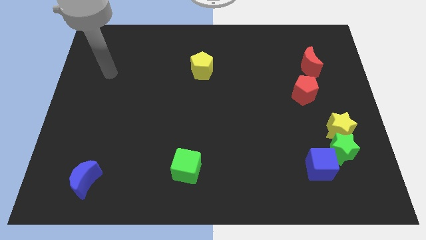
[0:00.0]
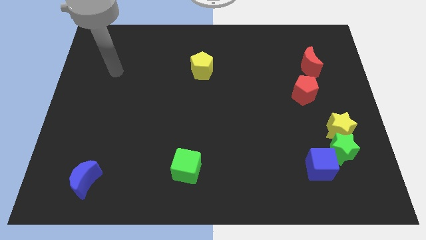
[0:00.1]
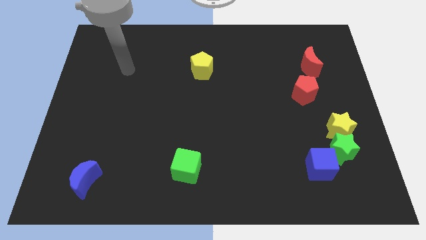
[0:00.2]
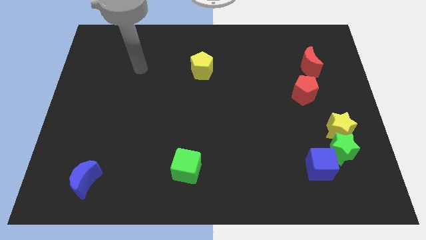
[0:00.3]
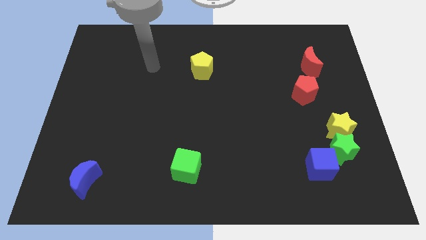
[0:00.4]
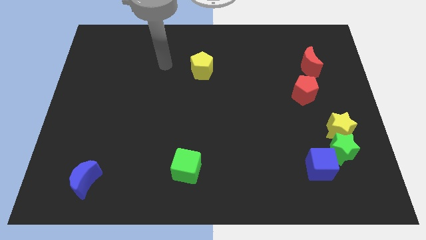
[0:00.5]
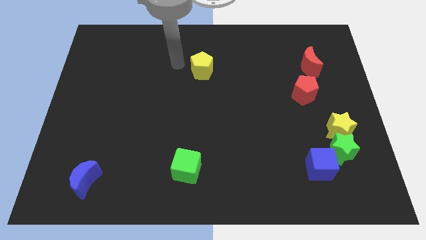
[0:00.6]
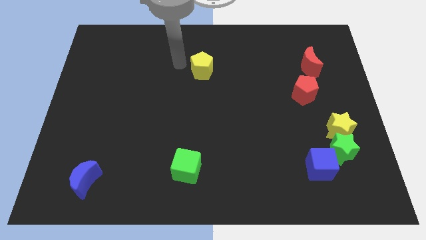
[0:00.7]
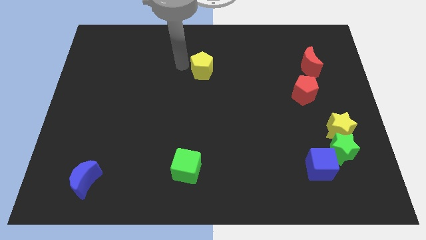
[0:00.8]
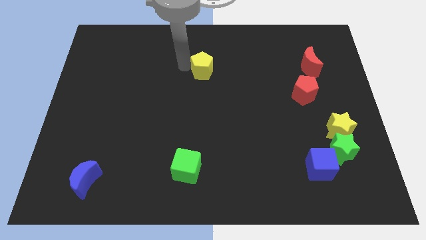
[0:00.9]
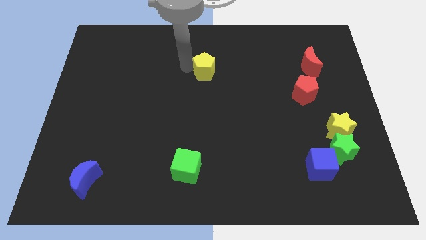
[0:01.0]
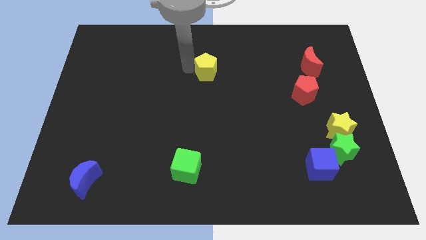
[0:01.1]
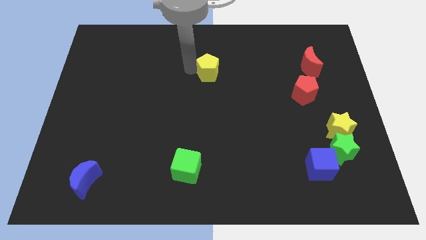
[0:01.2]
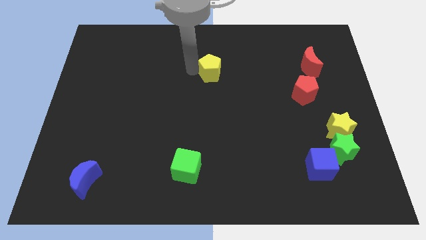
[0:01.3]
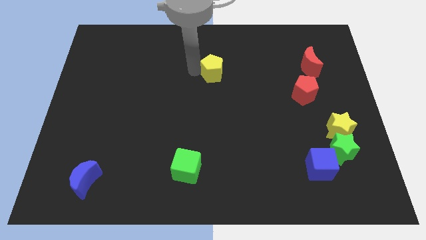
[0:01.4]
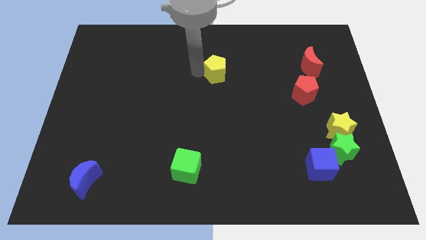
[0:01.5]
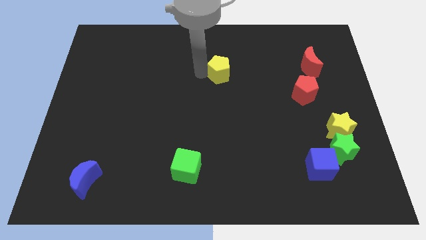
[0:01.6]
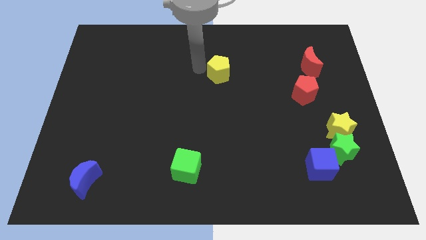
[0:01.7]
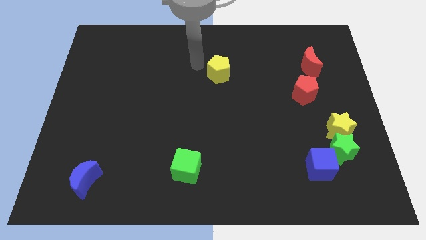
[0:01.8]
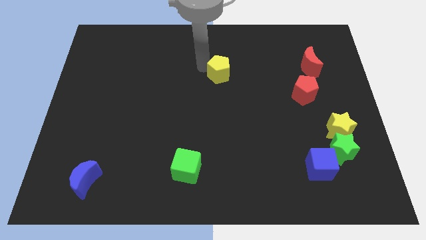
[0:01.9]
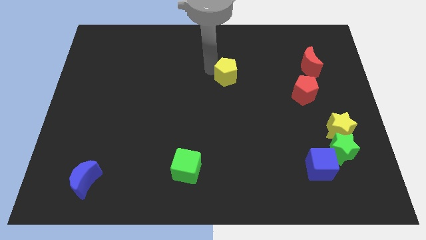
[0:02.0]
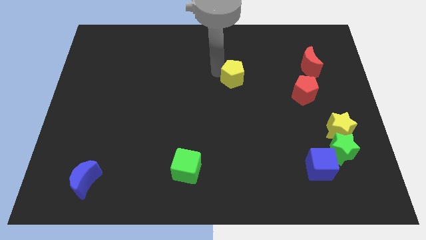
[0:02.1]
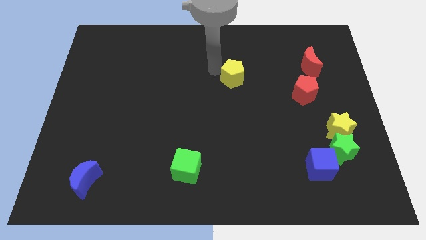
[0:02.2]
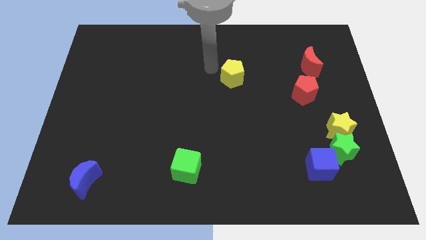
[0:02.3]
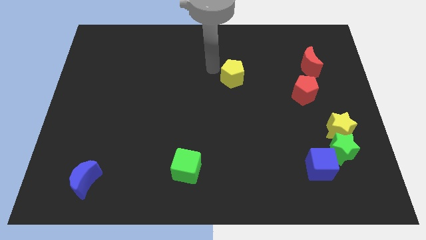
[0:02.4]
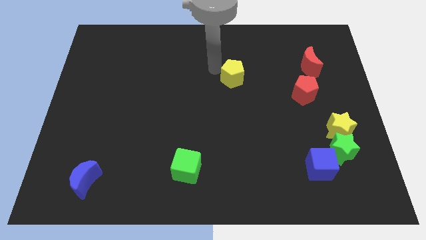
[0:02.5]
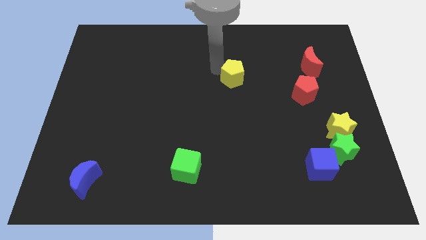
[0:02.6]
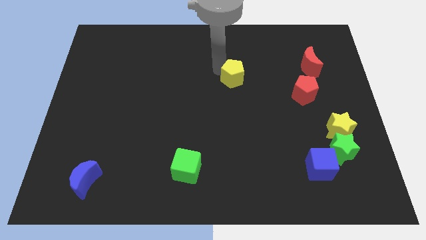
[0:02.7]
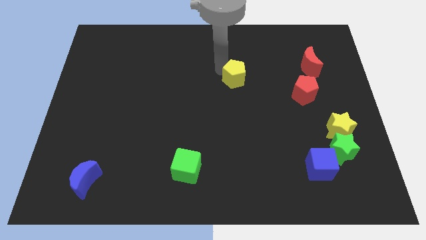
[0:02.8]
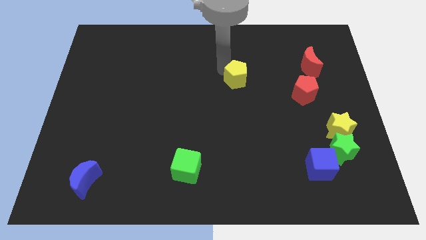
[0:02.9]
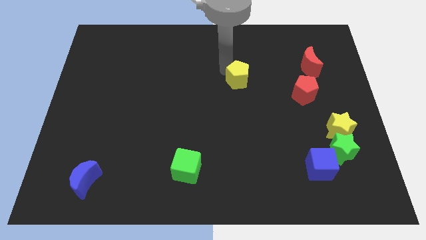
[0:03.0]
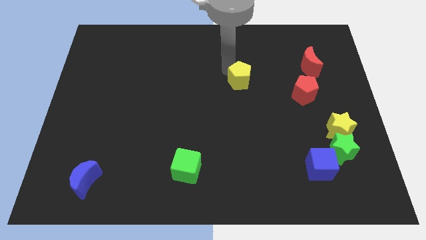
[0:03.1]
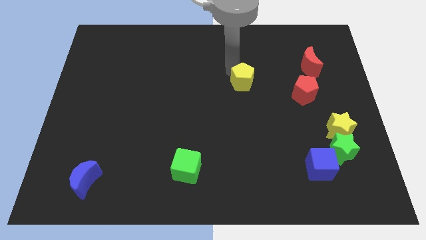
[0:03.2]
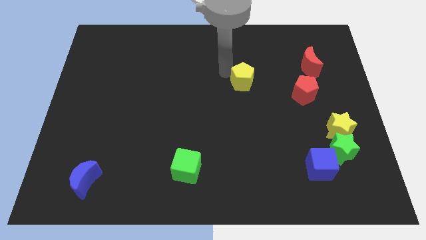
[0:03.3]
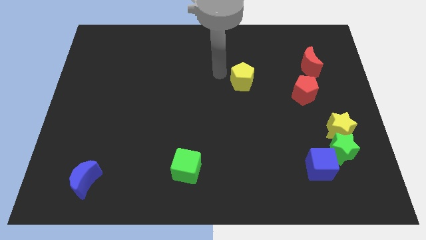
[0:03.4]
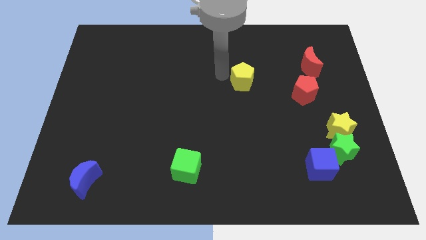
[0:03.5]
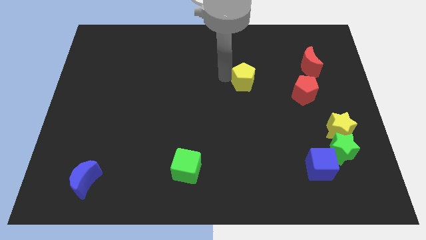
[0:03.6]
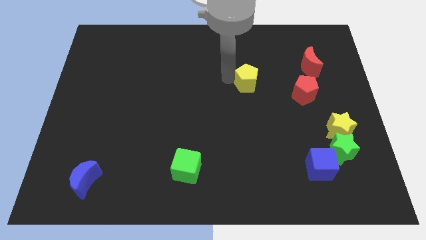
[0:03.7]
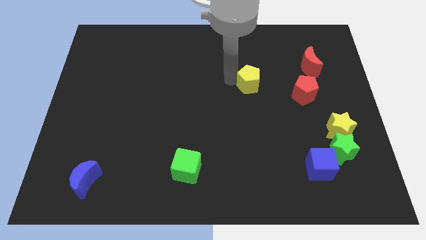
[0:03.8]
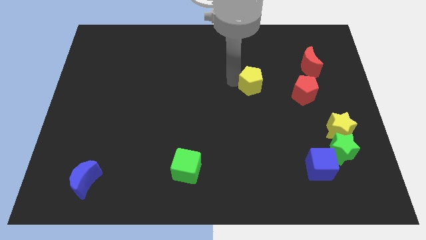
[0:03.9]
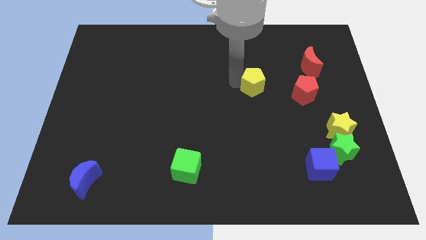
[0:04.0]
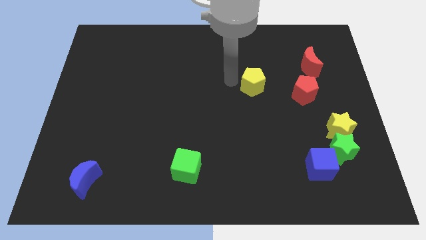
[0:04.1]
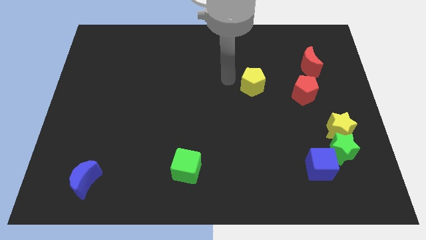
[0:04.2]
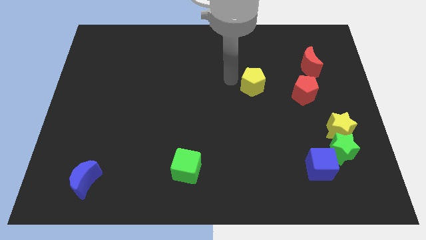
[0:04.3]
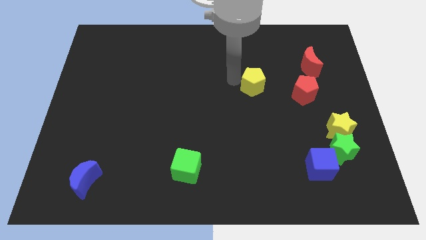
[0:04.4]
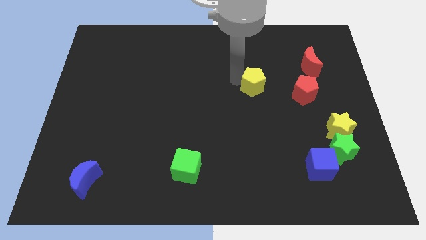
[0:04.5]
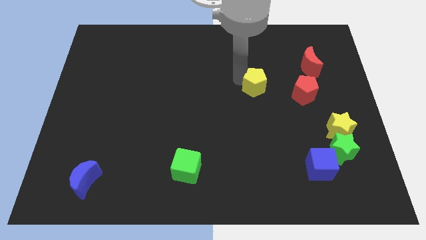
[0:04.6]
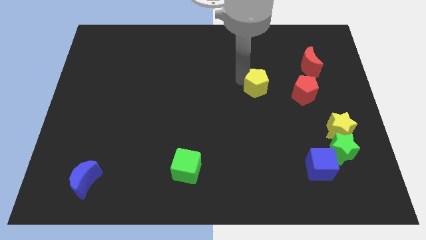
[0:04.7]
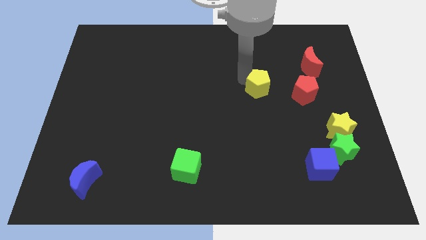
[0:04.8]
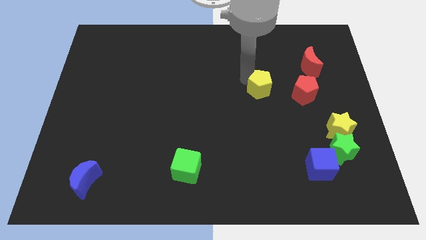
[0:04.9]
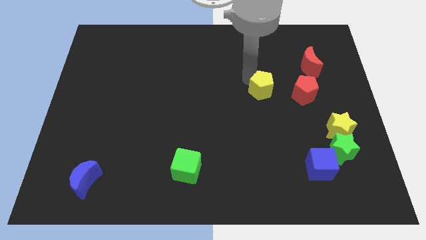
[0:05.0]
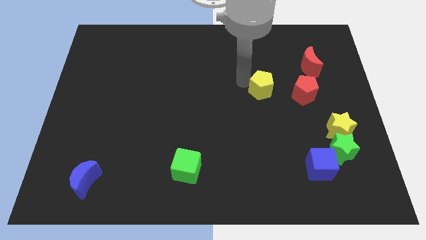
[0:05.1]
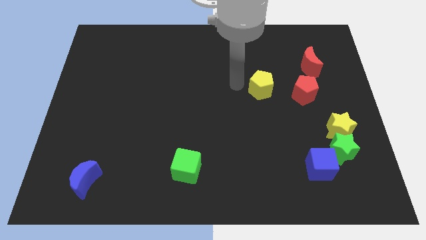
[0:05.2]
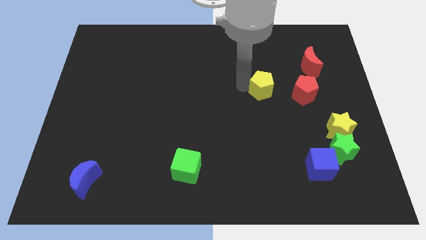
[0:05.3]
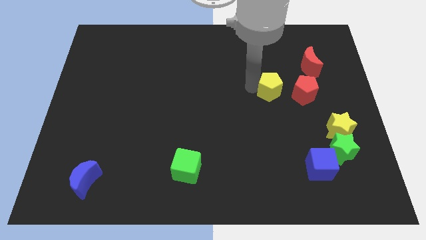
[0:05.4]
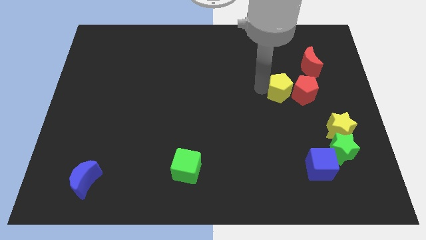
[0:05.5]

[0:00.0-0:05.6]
put the yellow pentagon towards the red pentagon

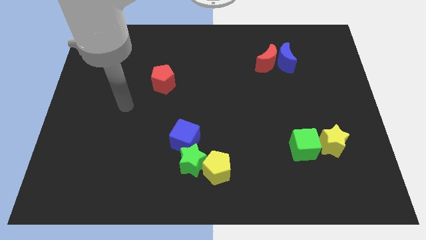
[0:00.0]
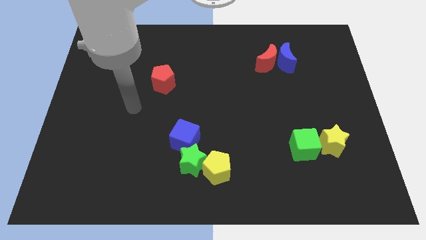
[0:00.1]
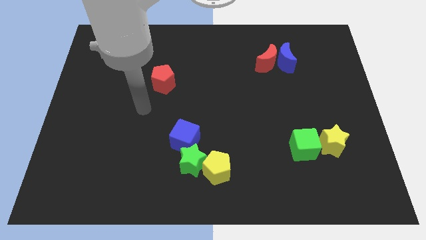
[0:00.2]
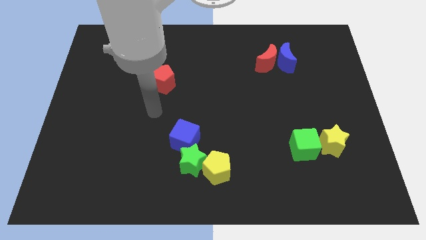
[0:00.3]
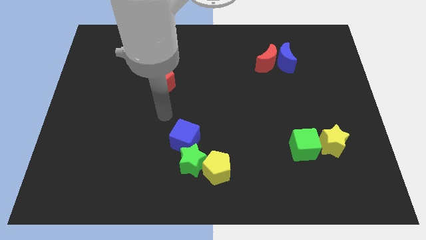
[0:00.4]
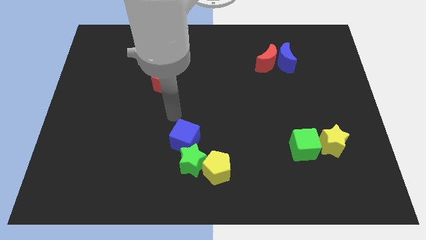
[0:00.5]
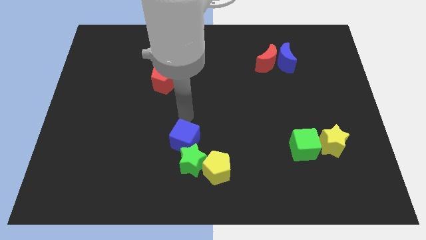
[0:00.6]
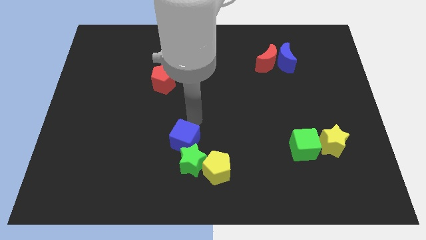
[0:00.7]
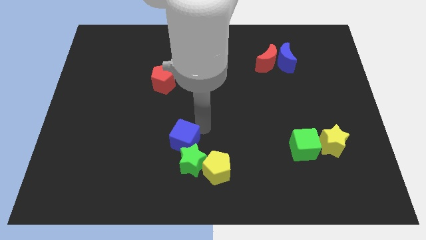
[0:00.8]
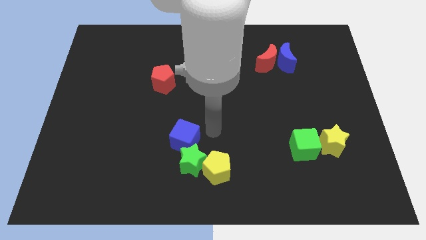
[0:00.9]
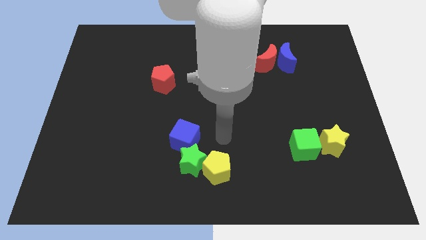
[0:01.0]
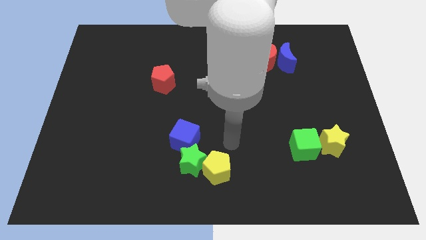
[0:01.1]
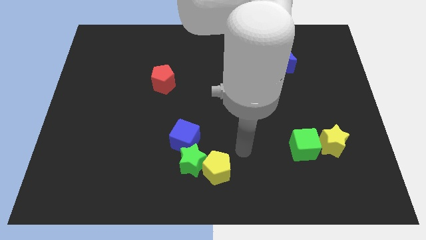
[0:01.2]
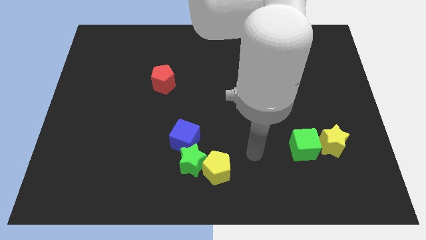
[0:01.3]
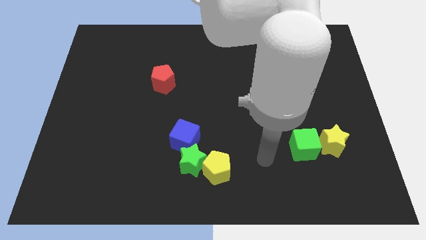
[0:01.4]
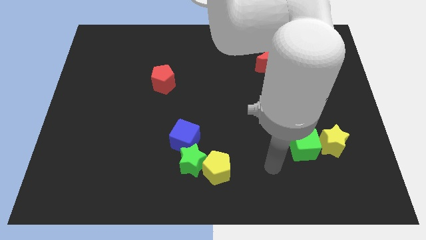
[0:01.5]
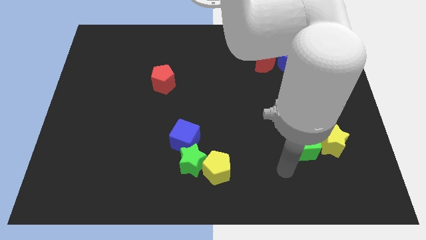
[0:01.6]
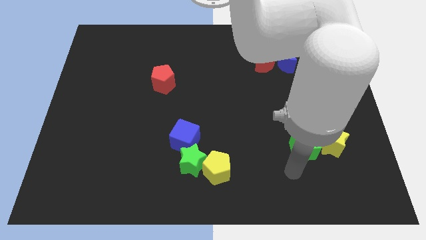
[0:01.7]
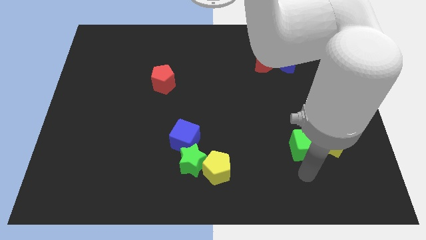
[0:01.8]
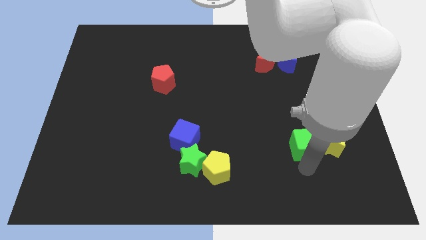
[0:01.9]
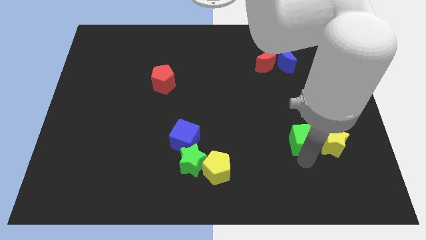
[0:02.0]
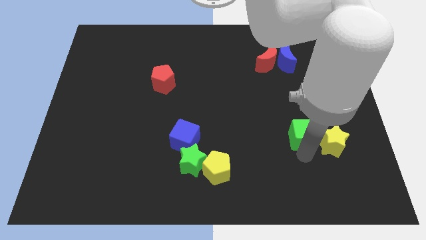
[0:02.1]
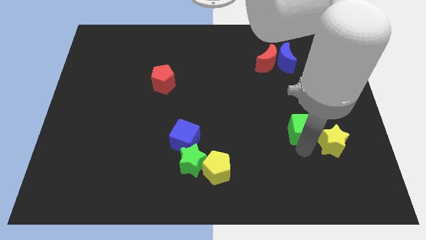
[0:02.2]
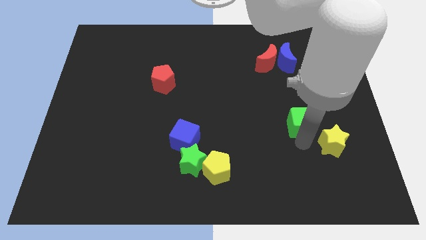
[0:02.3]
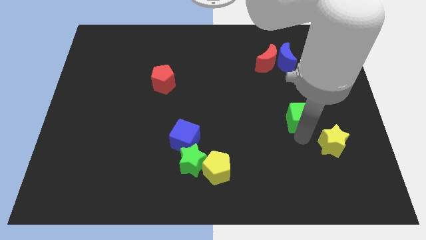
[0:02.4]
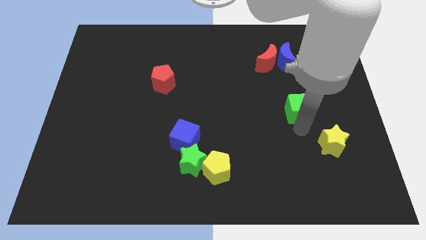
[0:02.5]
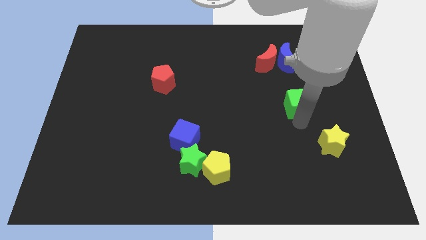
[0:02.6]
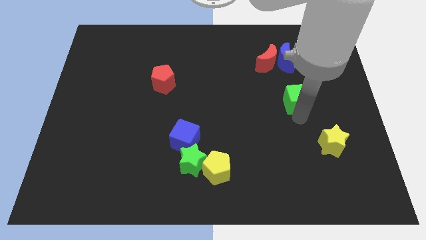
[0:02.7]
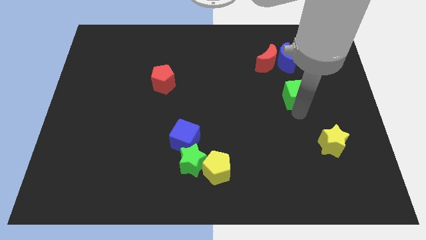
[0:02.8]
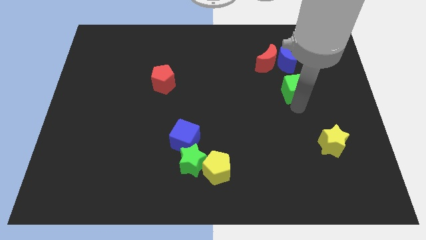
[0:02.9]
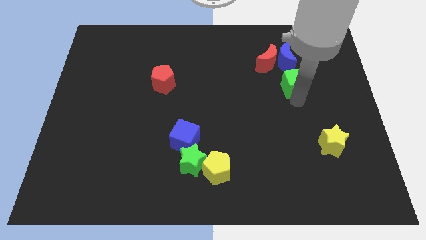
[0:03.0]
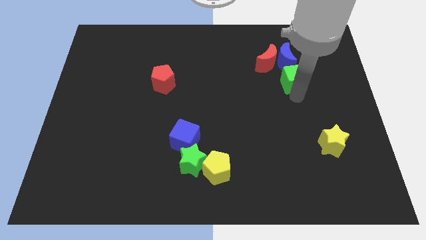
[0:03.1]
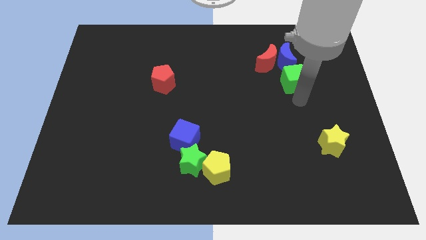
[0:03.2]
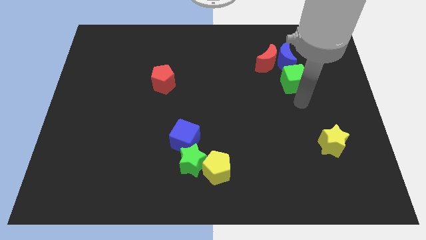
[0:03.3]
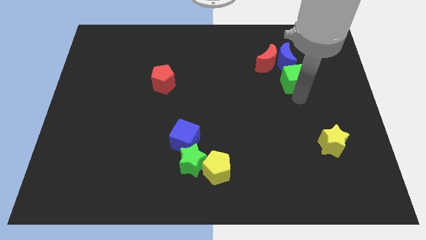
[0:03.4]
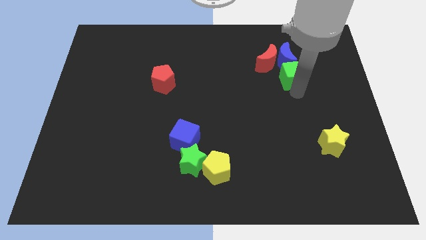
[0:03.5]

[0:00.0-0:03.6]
put the green cube towards the blue moon
